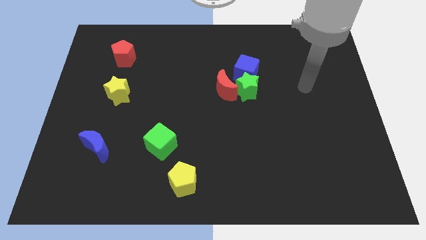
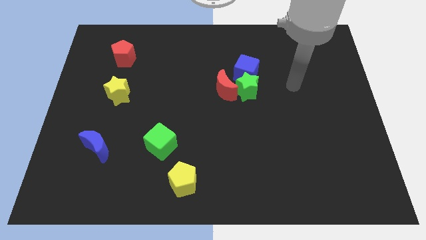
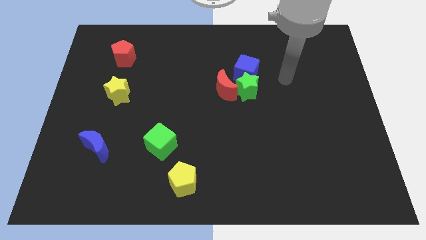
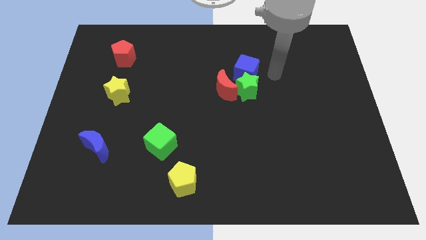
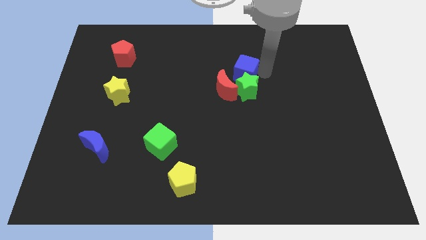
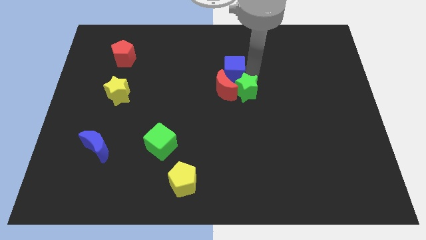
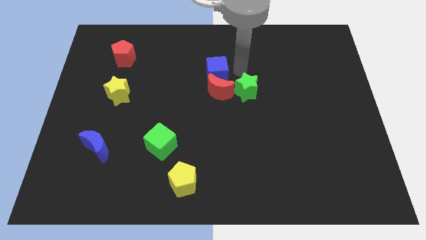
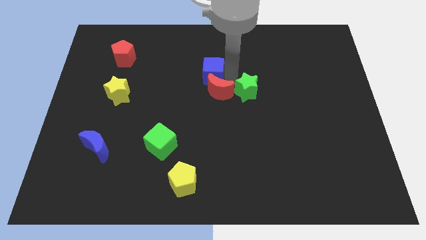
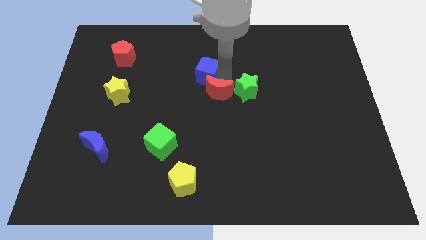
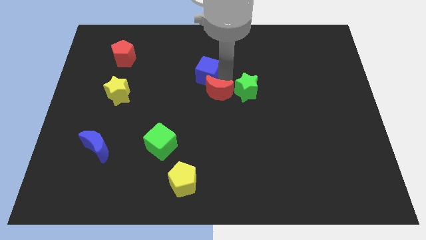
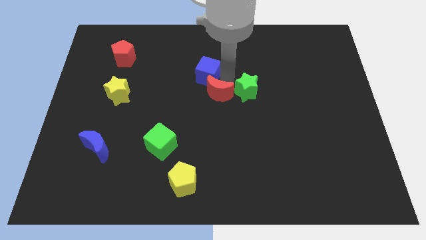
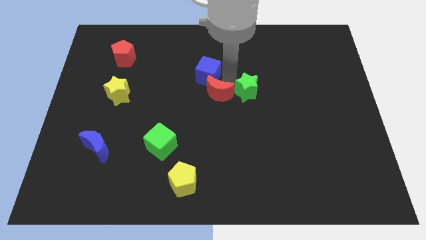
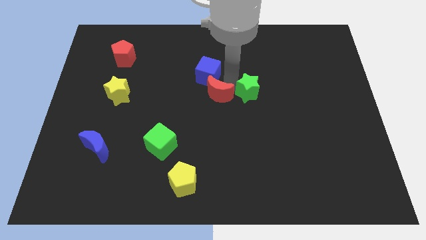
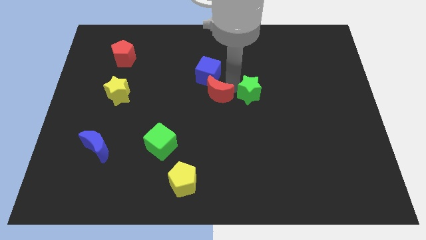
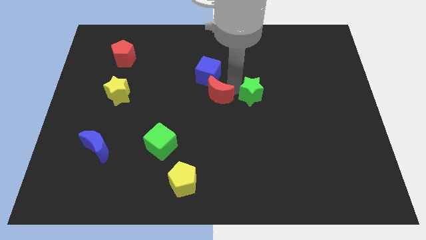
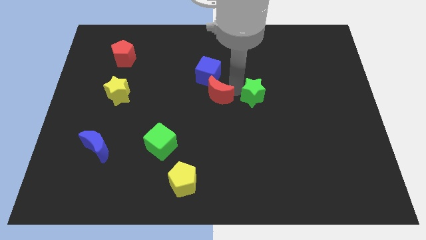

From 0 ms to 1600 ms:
move the green star away from the red moon and blue cube

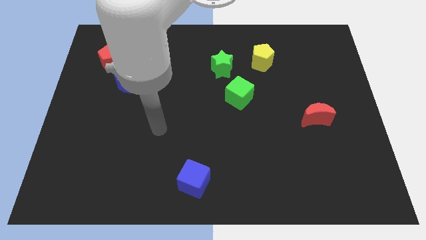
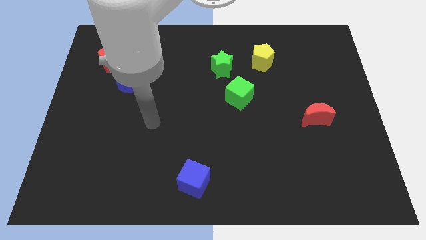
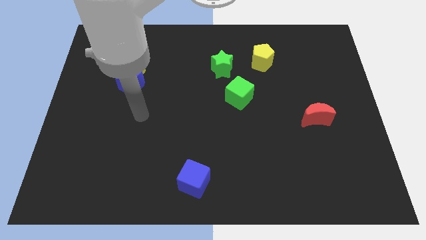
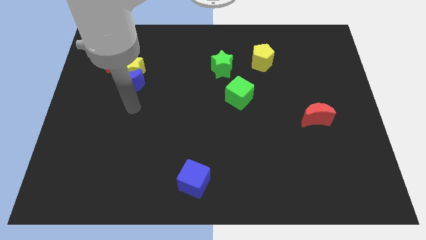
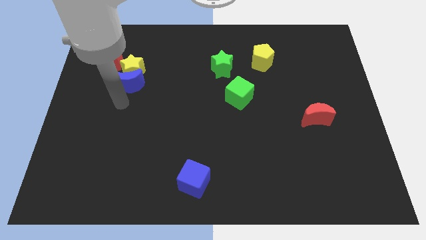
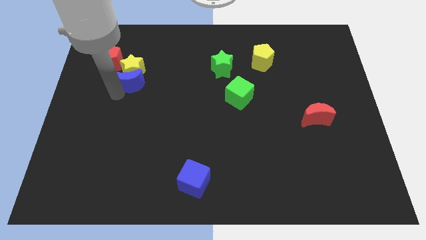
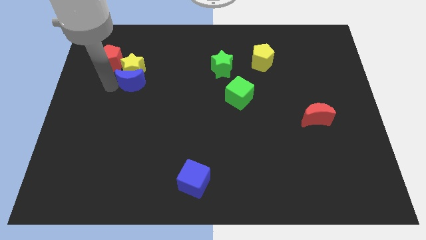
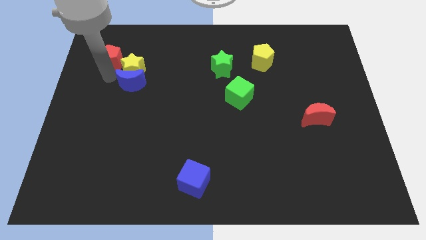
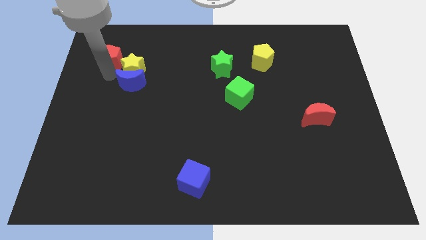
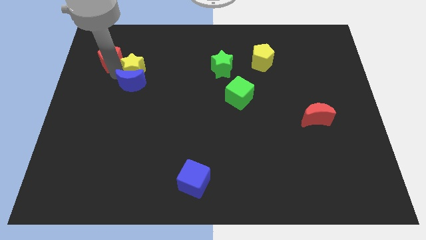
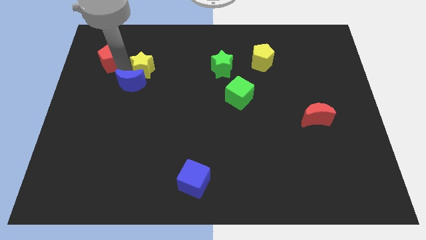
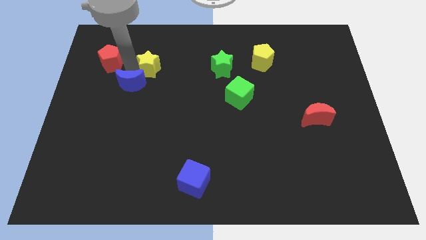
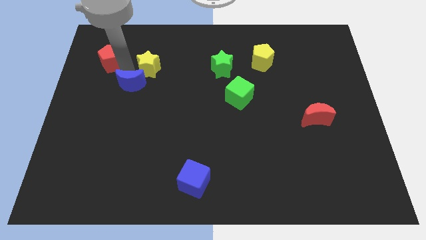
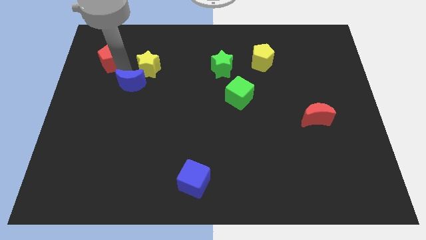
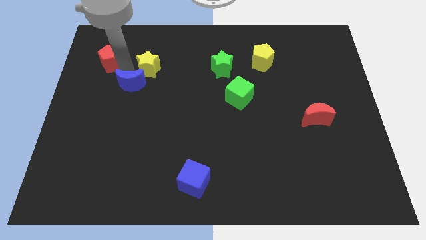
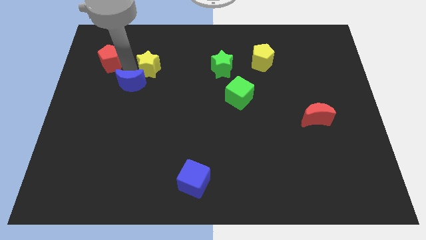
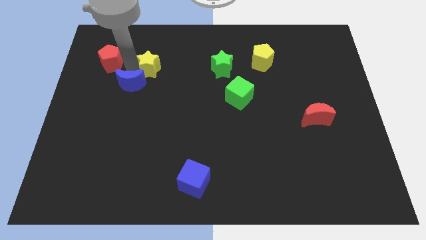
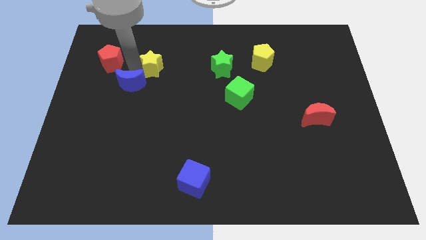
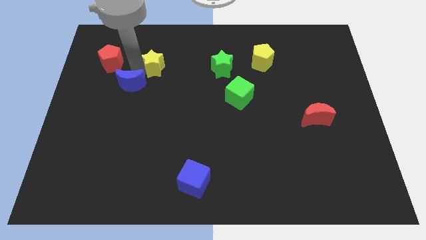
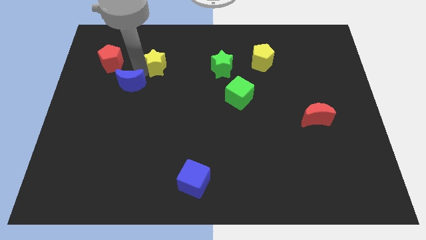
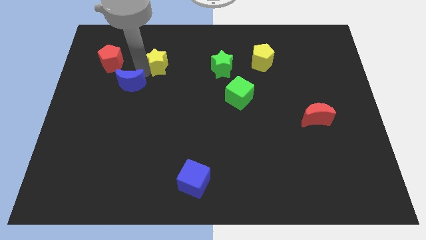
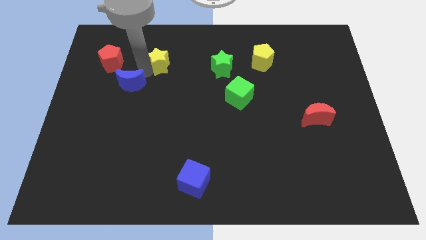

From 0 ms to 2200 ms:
pull the yellow star apart from the blue moon and red pentagon

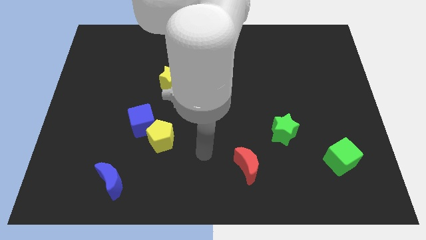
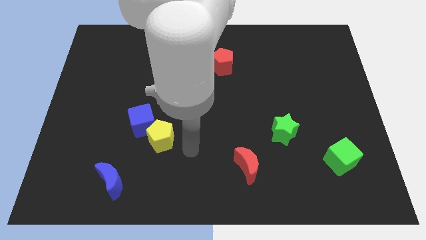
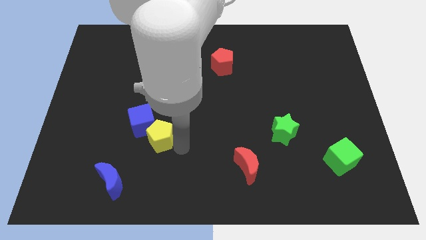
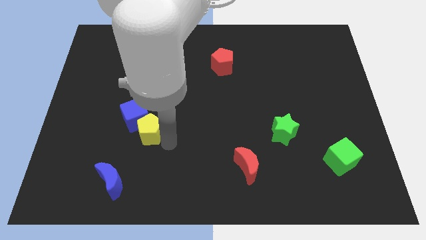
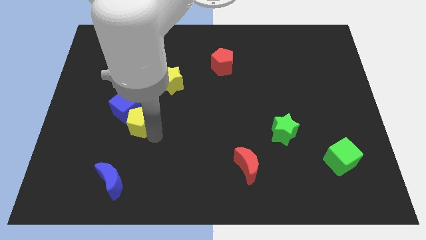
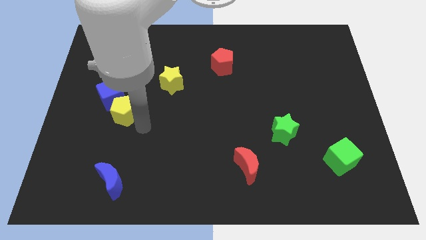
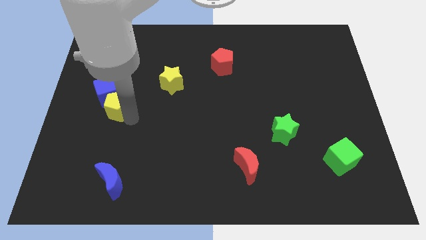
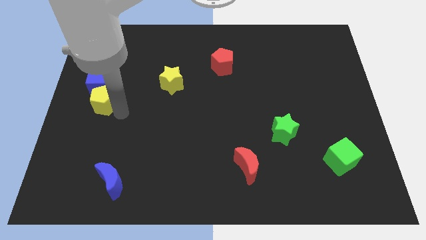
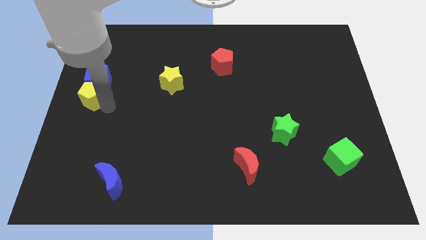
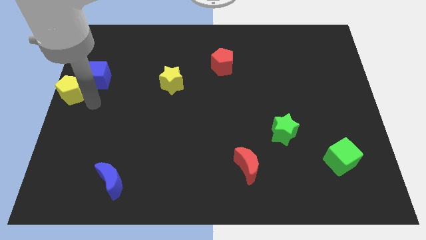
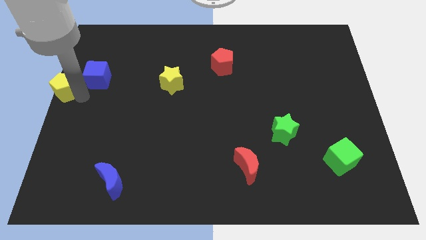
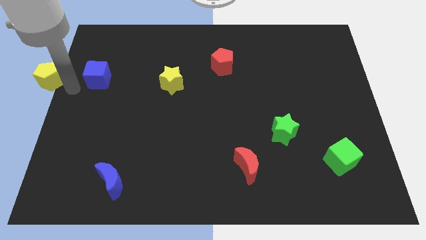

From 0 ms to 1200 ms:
separate the blue cube from the yellow pentagon

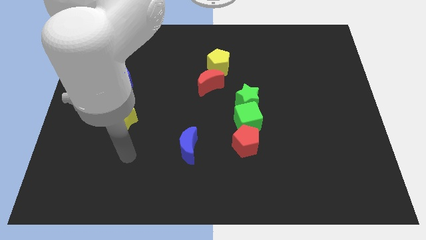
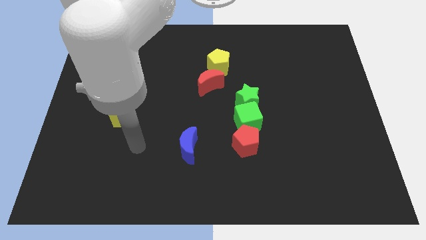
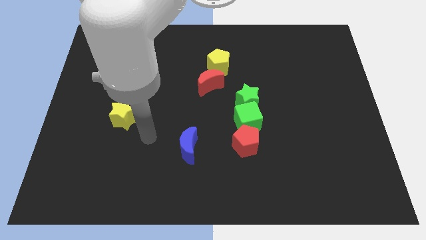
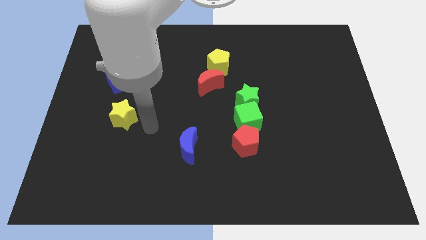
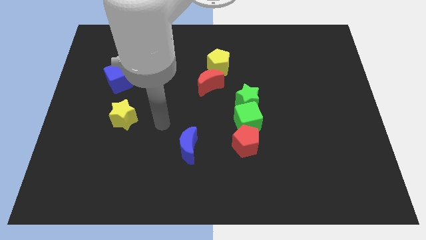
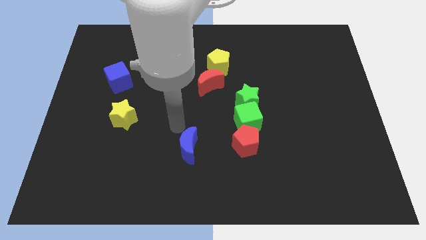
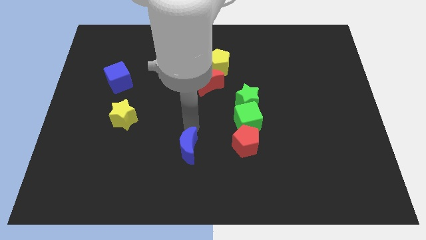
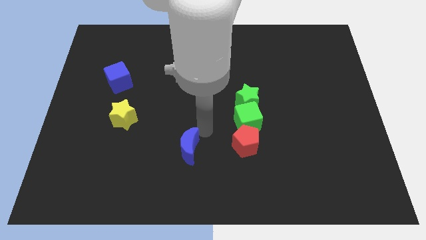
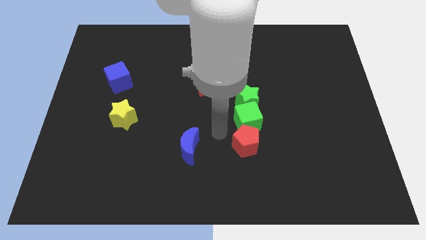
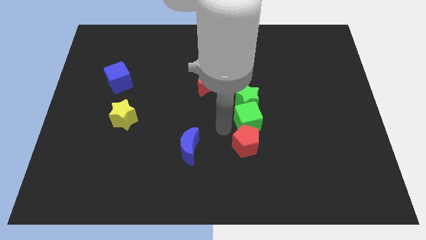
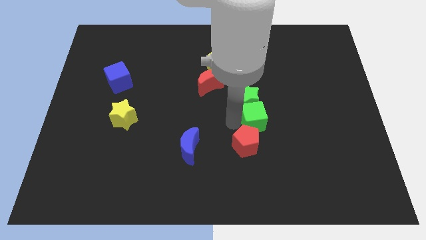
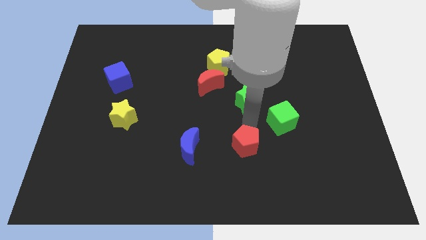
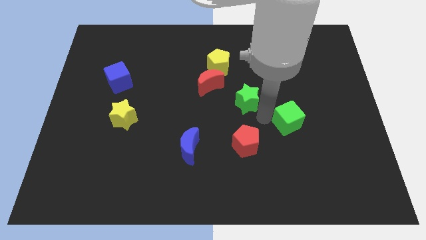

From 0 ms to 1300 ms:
separate the green star from the green cube

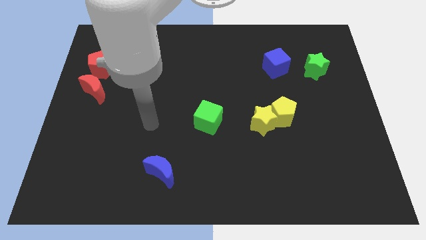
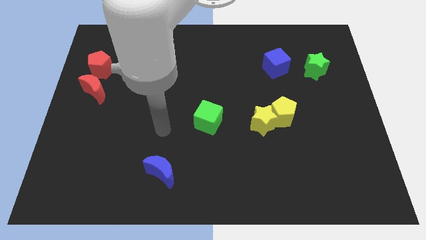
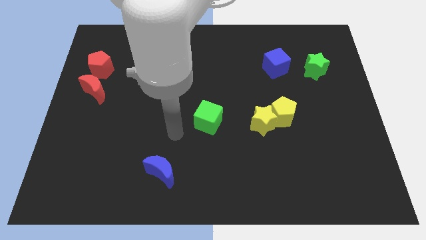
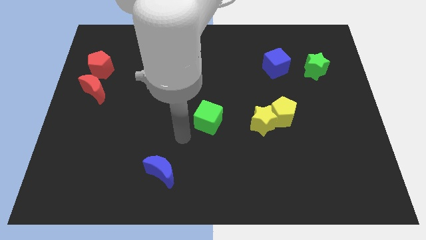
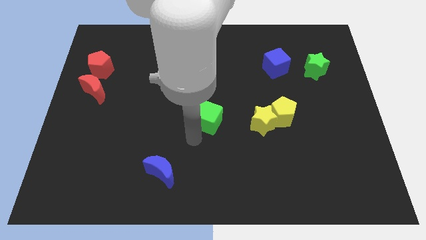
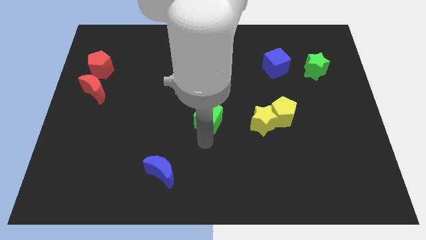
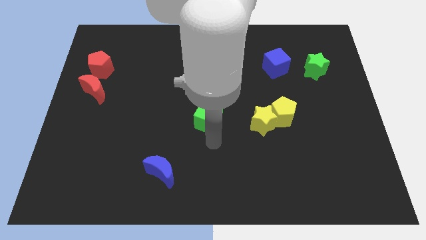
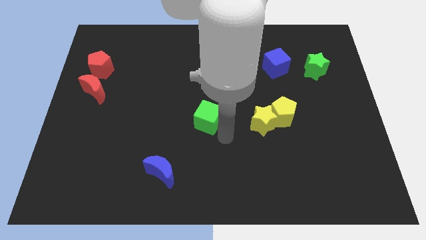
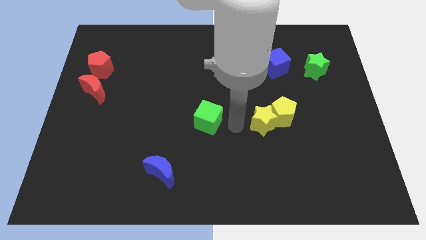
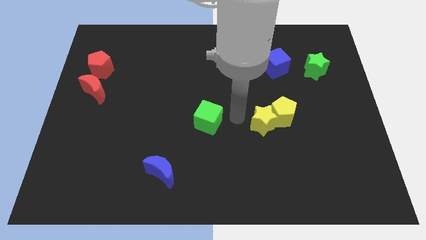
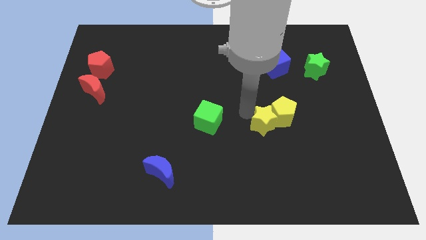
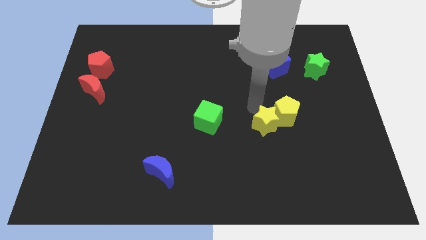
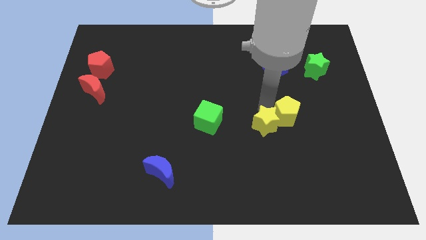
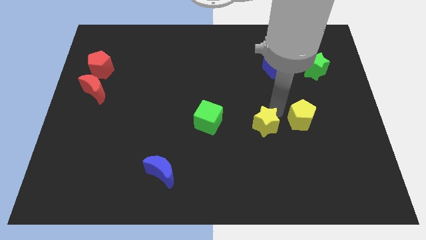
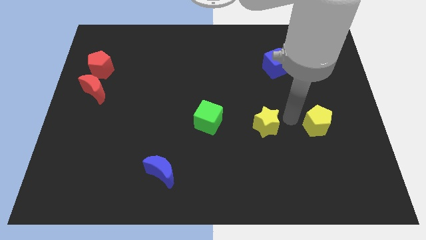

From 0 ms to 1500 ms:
move the yellow star away from the yellow pentagon

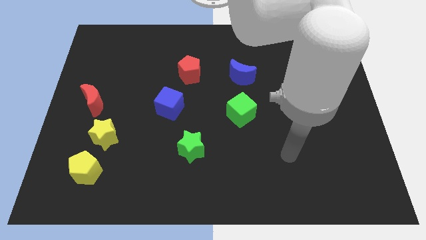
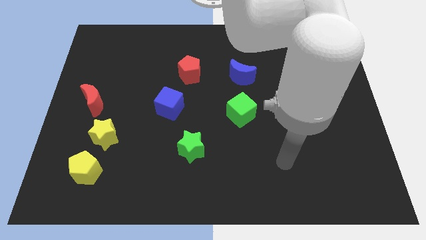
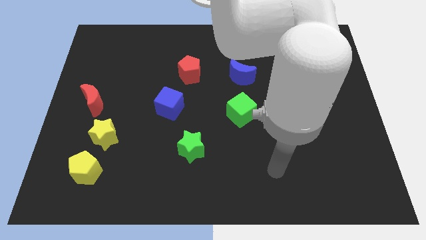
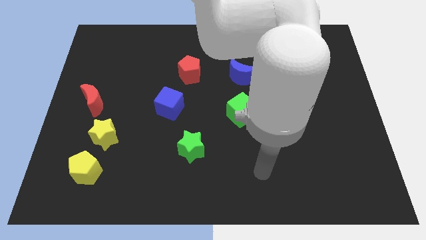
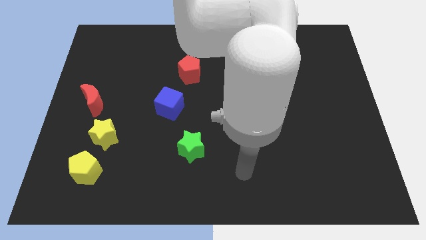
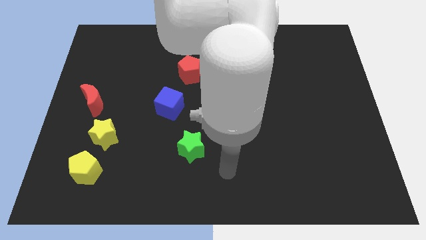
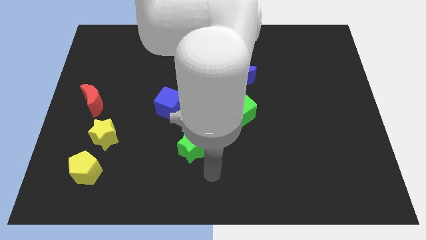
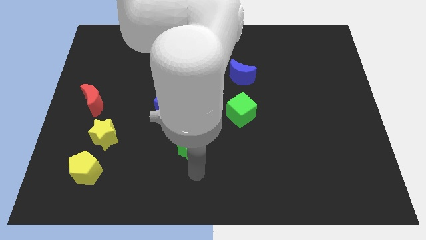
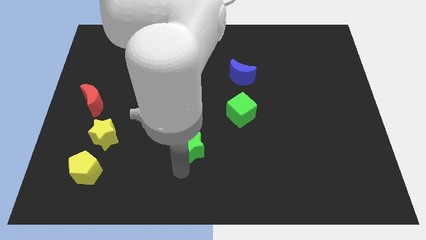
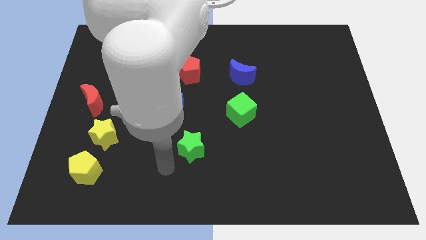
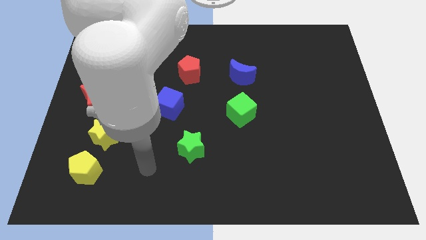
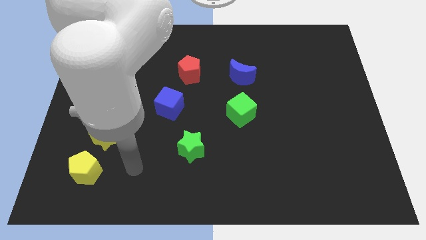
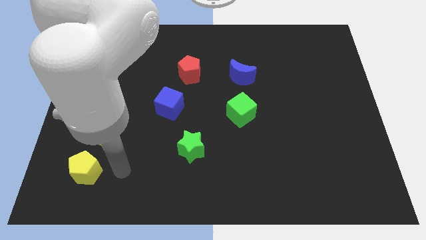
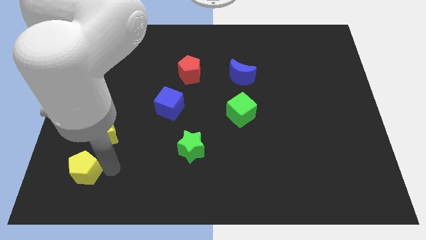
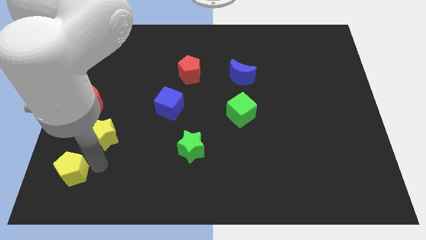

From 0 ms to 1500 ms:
separate the yellow star from the yellow pentagon

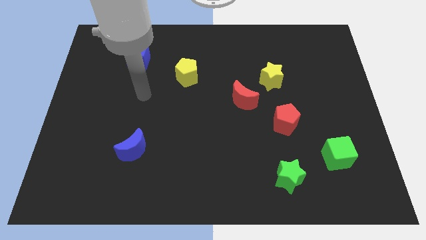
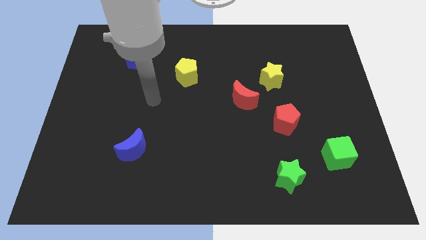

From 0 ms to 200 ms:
move the red moon away from the yellow star
